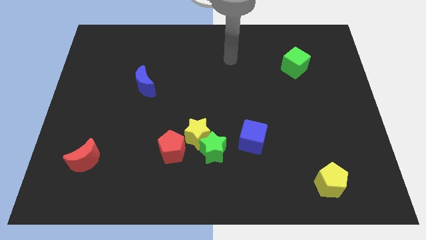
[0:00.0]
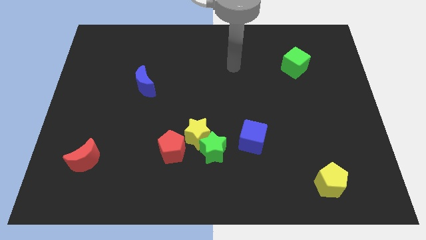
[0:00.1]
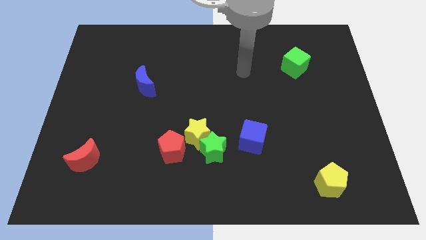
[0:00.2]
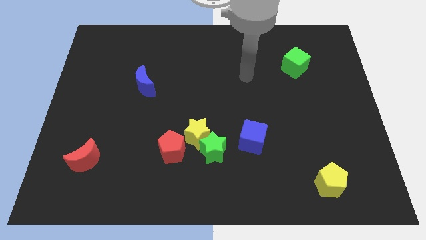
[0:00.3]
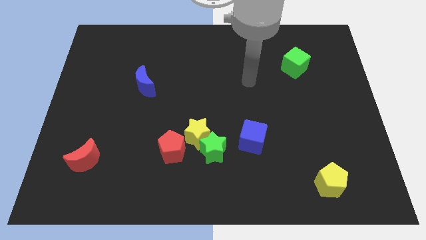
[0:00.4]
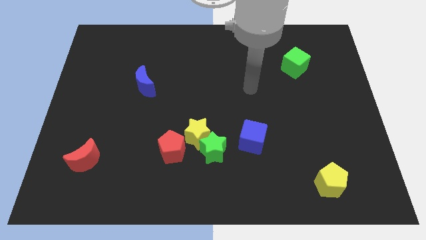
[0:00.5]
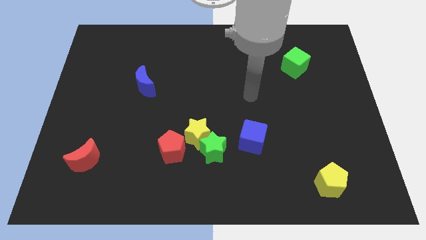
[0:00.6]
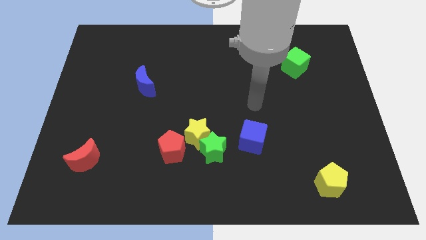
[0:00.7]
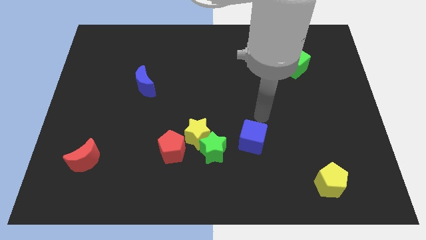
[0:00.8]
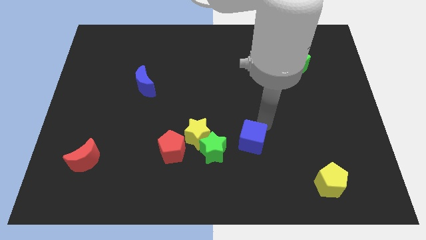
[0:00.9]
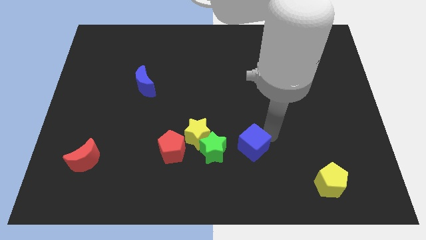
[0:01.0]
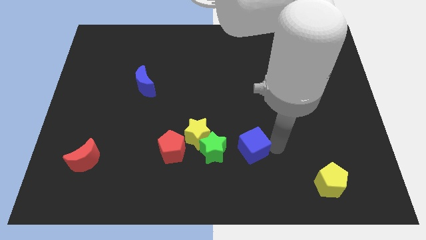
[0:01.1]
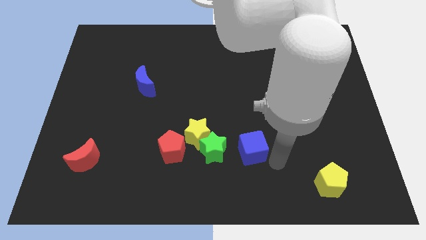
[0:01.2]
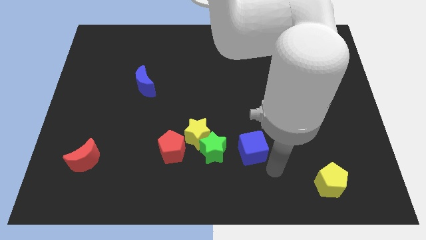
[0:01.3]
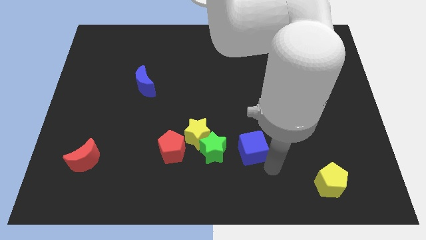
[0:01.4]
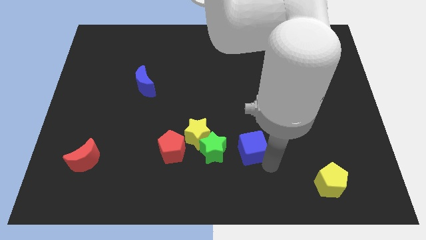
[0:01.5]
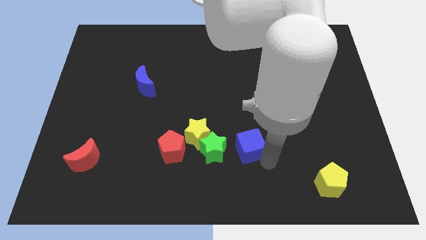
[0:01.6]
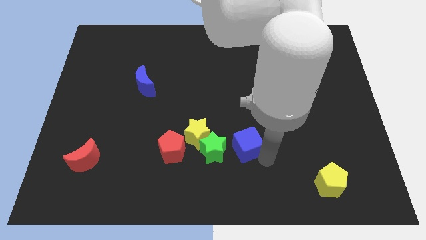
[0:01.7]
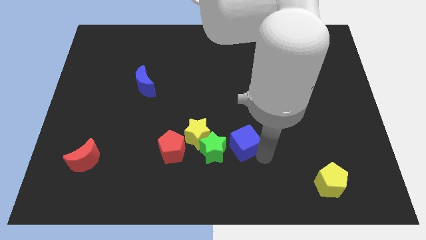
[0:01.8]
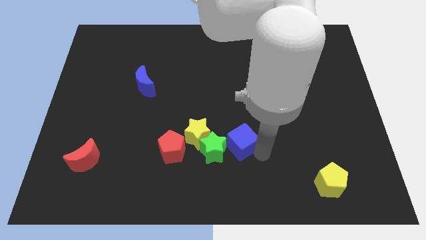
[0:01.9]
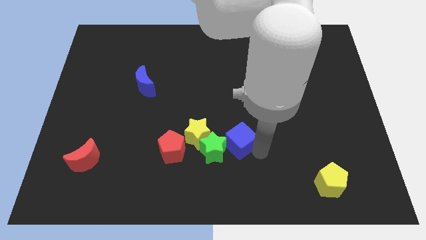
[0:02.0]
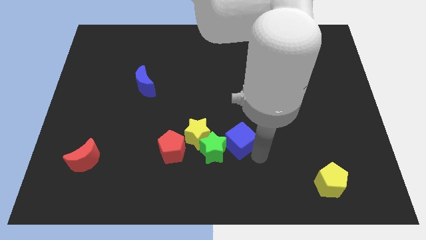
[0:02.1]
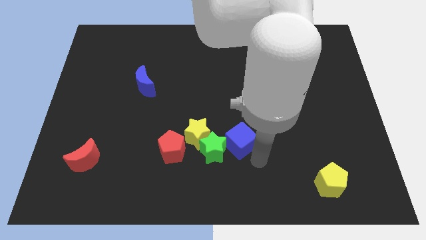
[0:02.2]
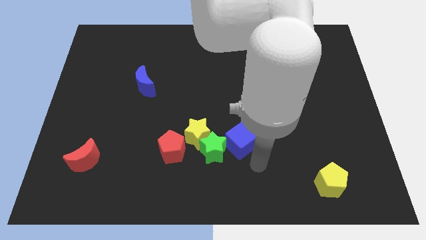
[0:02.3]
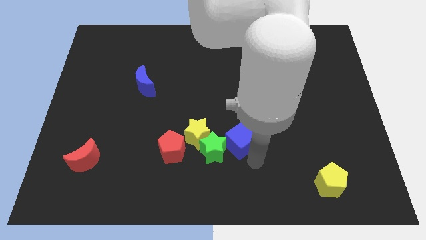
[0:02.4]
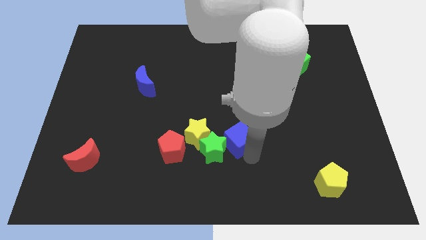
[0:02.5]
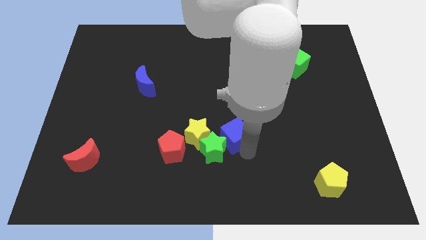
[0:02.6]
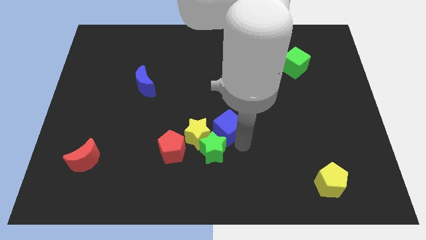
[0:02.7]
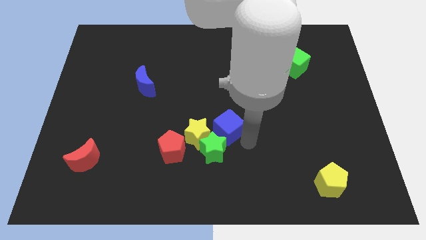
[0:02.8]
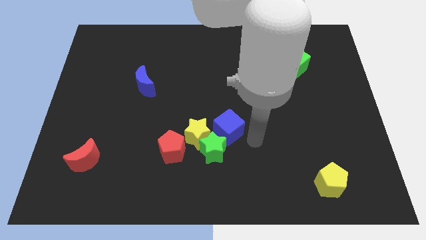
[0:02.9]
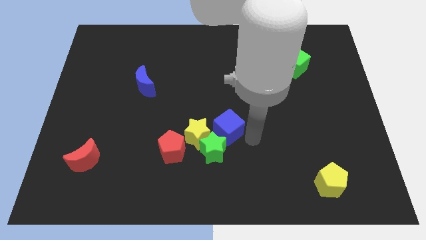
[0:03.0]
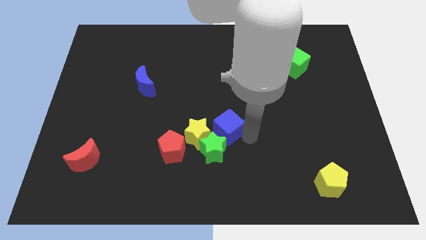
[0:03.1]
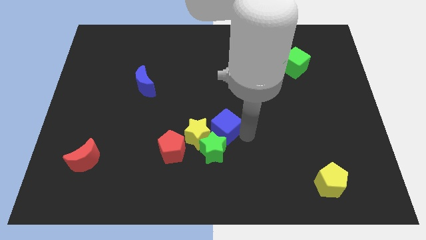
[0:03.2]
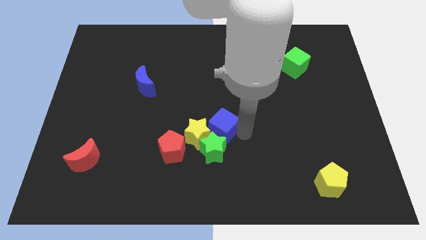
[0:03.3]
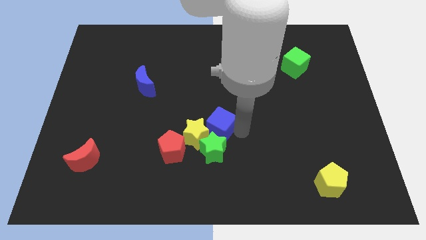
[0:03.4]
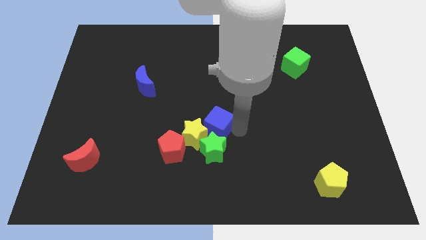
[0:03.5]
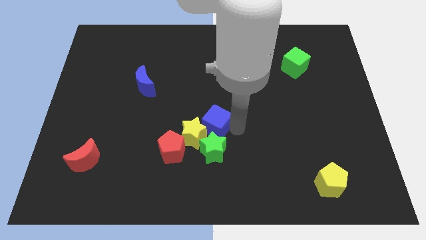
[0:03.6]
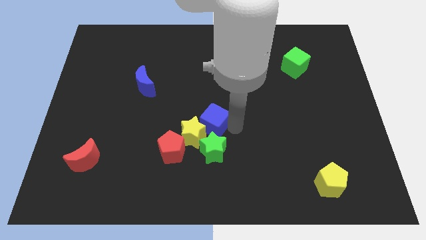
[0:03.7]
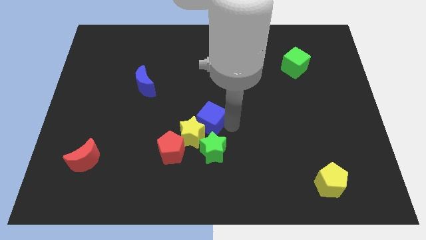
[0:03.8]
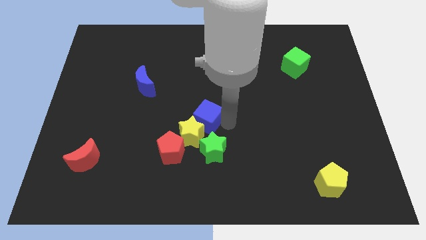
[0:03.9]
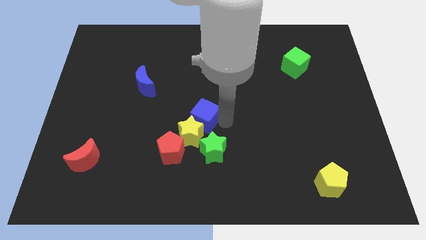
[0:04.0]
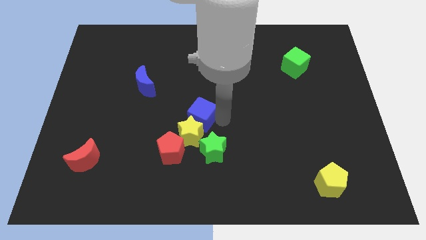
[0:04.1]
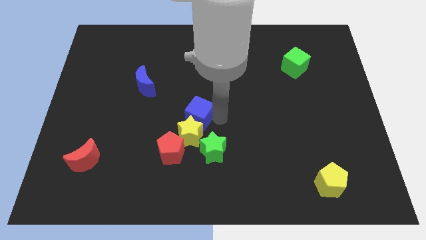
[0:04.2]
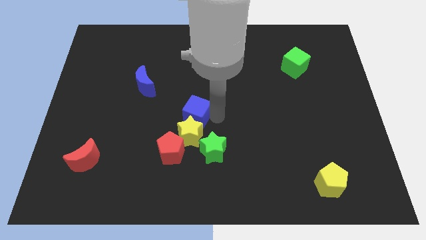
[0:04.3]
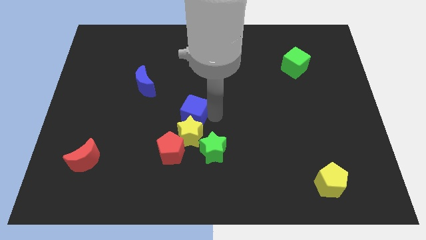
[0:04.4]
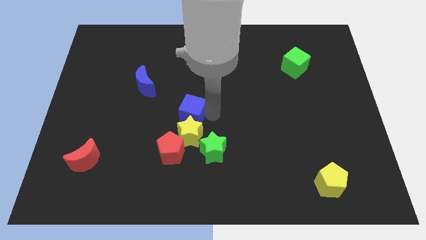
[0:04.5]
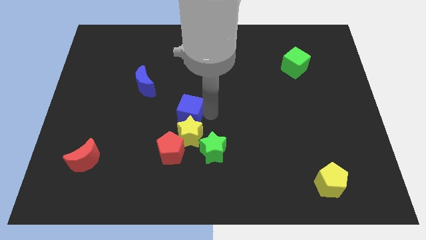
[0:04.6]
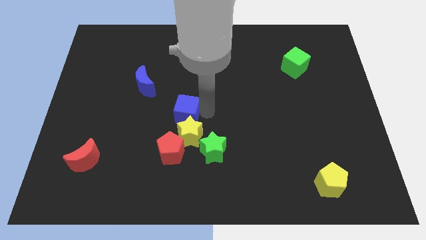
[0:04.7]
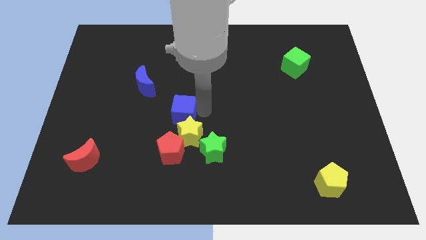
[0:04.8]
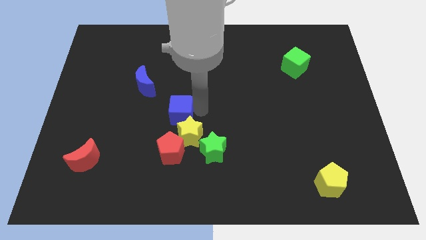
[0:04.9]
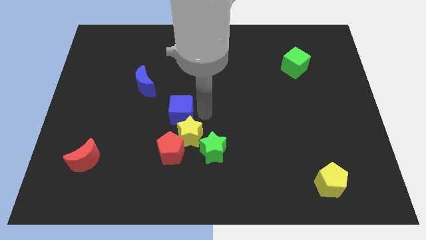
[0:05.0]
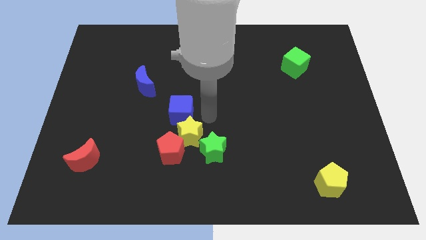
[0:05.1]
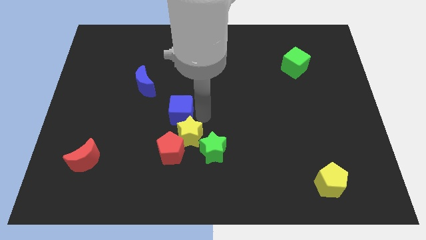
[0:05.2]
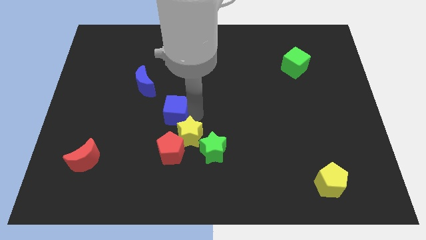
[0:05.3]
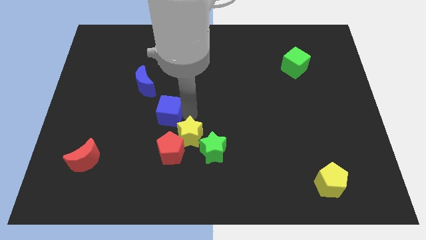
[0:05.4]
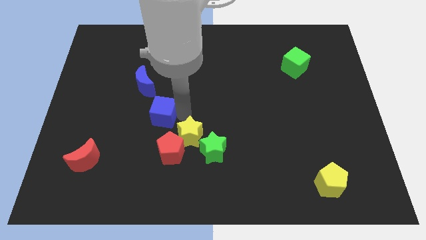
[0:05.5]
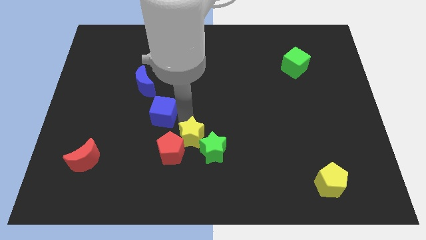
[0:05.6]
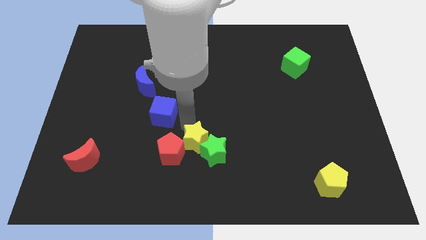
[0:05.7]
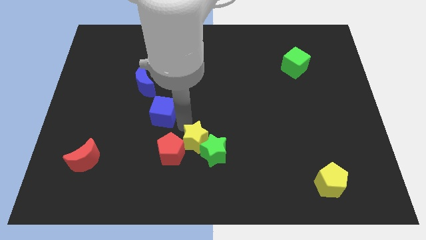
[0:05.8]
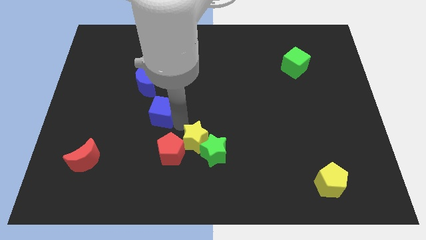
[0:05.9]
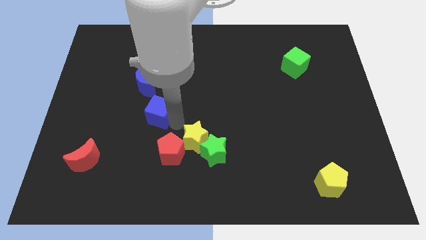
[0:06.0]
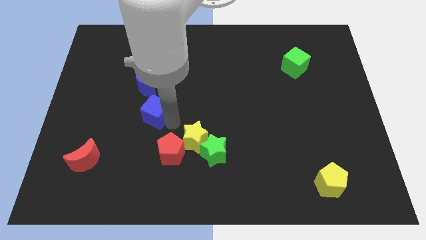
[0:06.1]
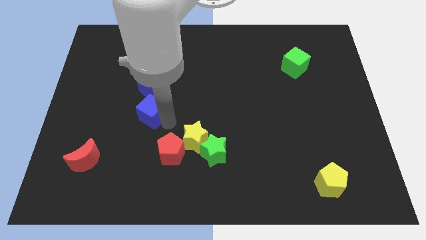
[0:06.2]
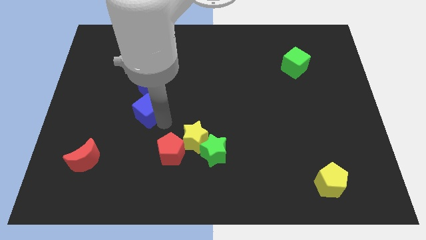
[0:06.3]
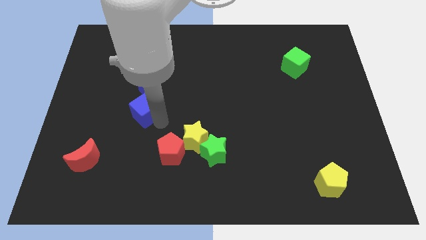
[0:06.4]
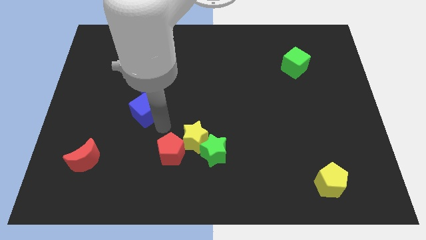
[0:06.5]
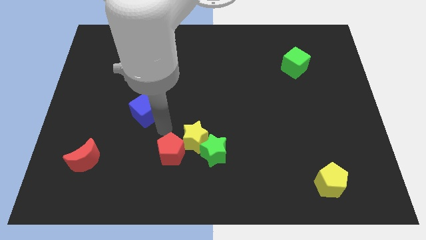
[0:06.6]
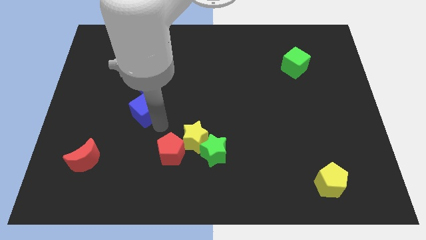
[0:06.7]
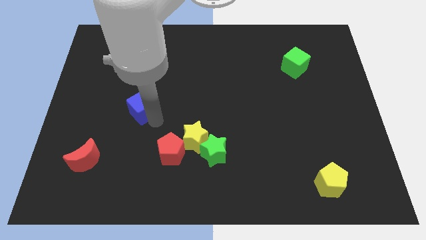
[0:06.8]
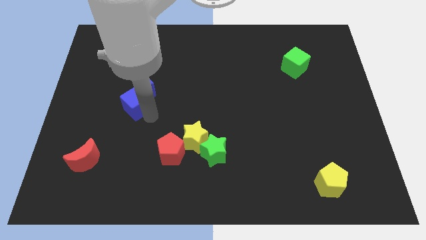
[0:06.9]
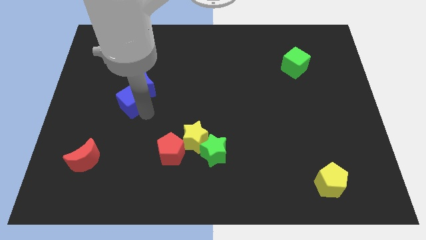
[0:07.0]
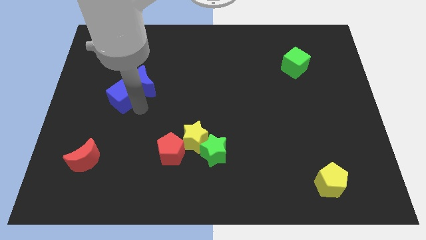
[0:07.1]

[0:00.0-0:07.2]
put the blue cube left of the blue moon

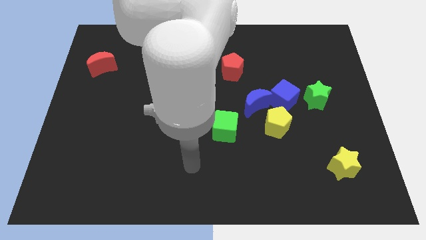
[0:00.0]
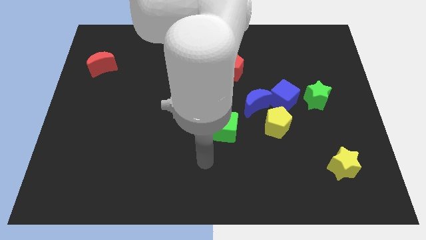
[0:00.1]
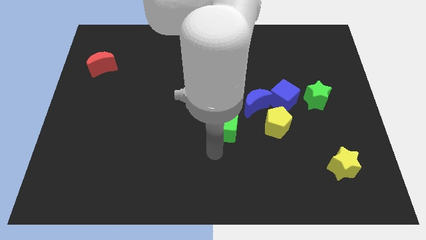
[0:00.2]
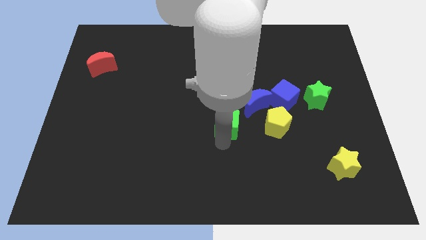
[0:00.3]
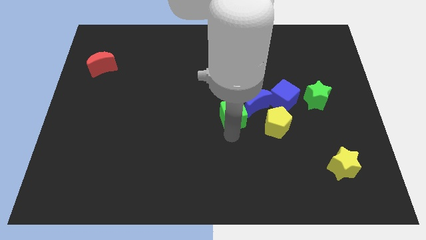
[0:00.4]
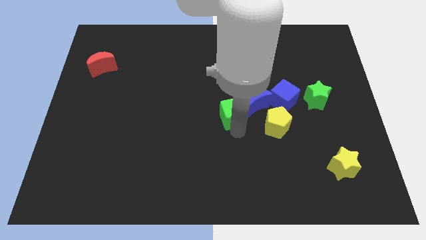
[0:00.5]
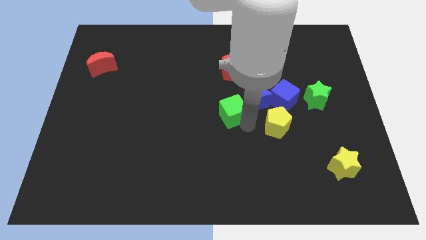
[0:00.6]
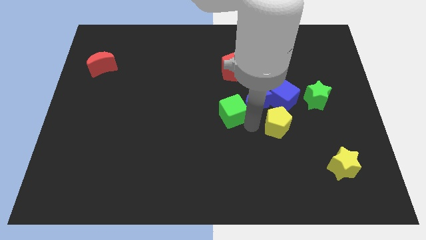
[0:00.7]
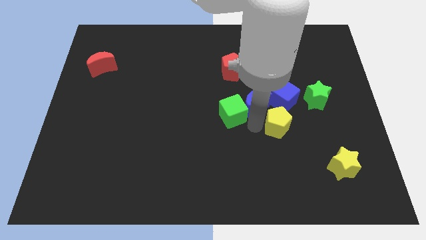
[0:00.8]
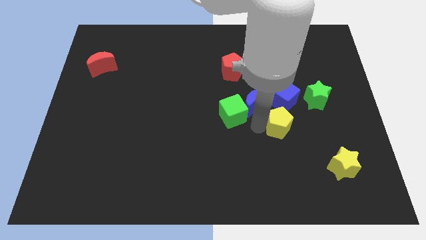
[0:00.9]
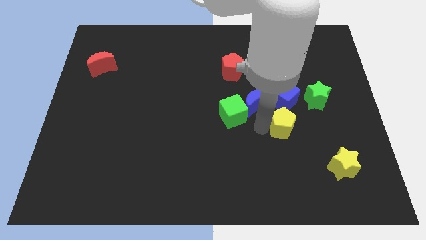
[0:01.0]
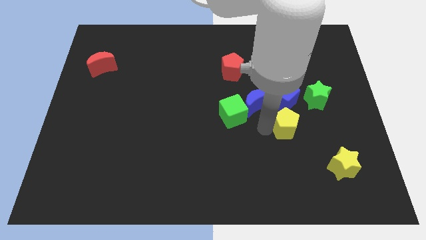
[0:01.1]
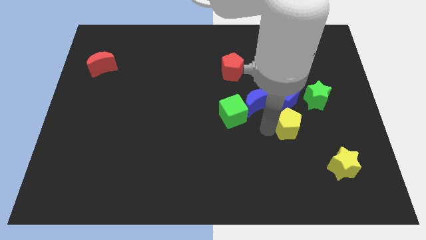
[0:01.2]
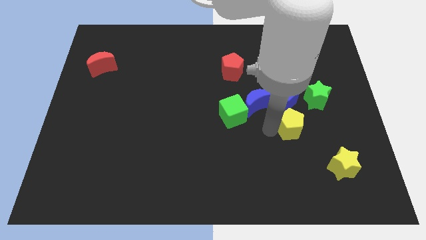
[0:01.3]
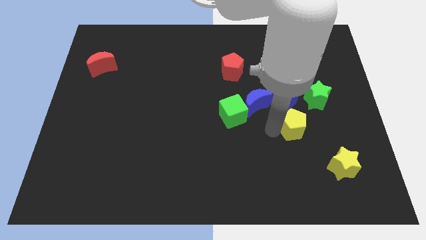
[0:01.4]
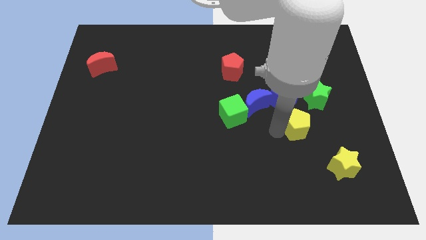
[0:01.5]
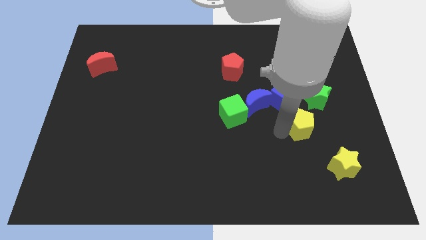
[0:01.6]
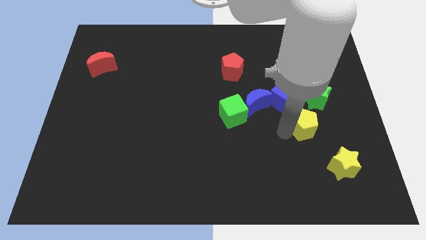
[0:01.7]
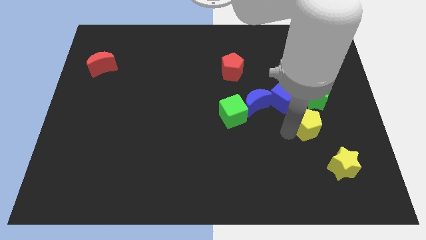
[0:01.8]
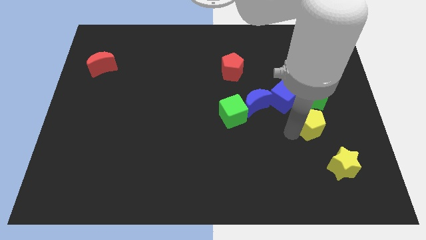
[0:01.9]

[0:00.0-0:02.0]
push the yellow pentagon to the top of the yellow star
